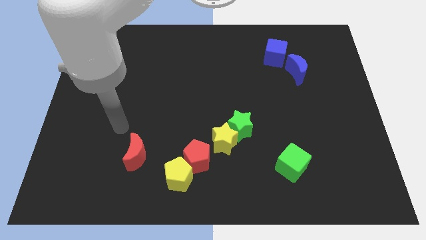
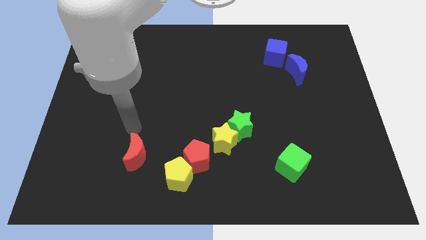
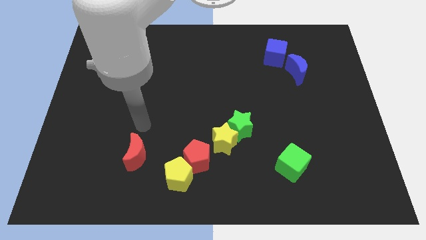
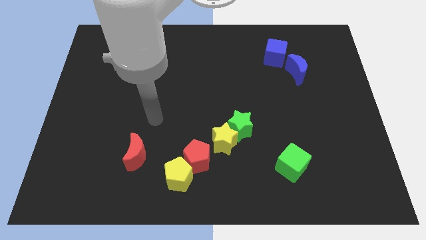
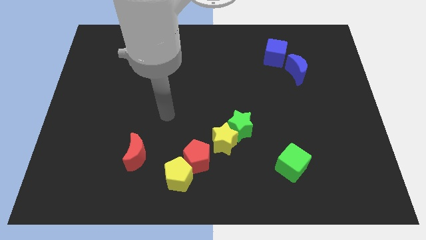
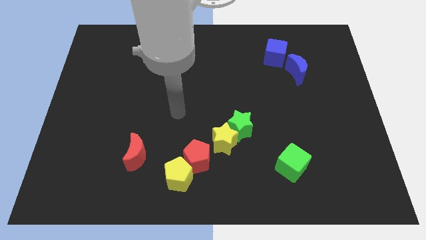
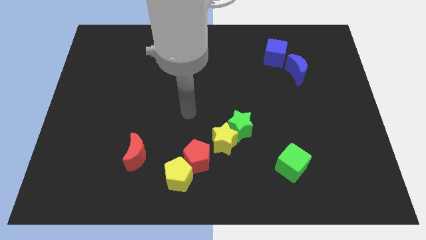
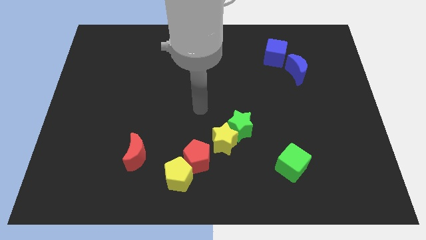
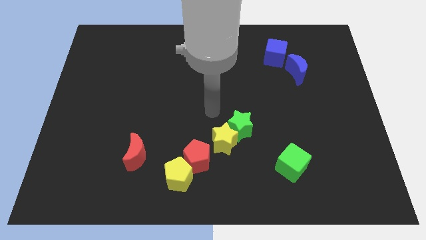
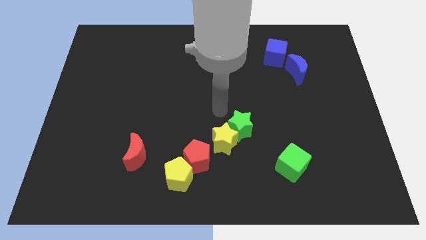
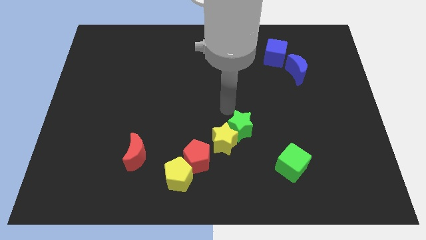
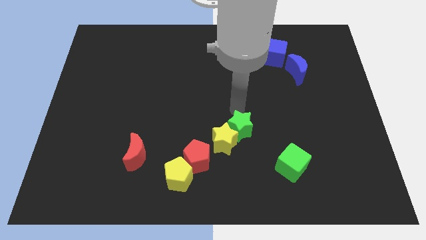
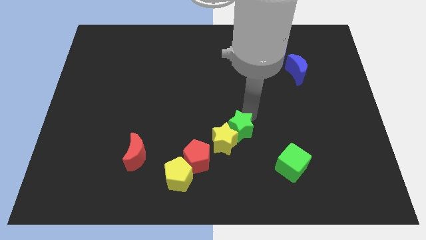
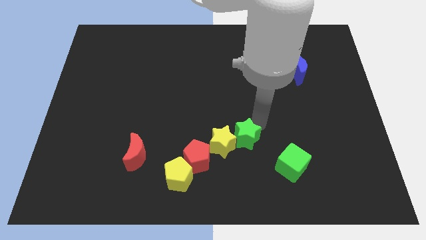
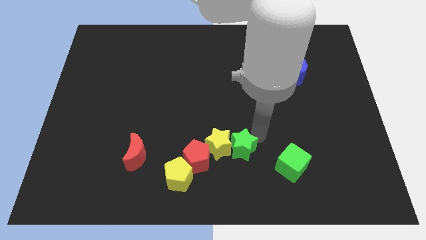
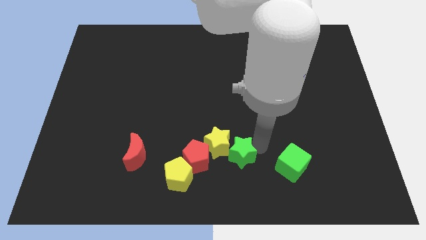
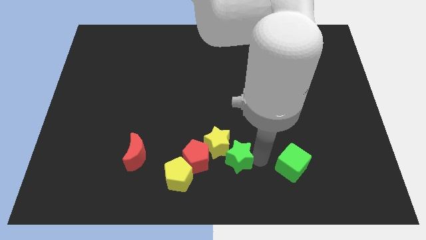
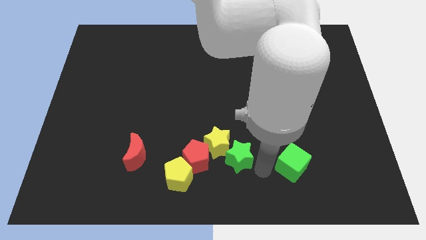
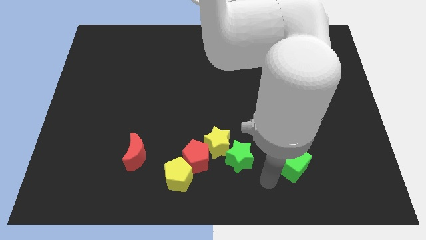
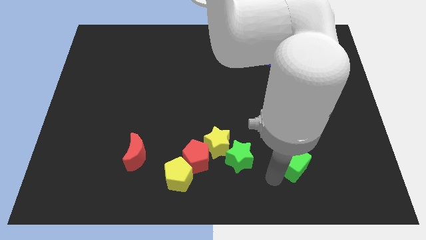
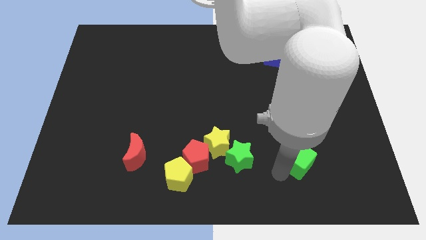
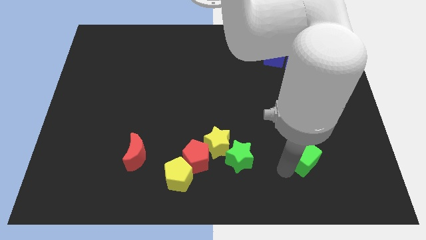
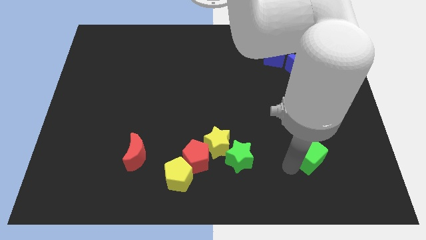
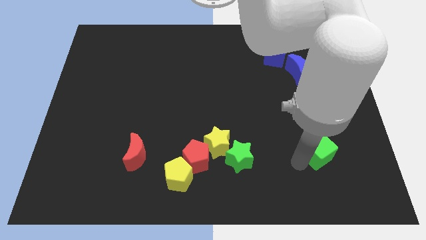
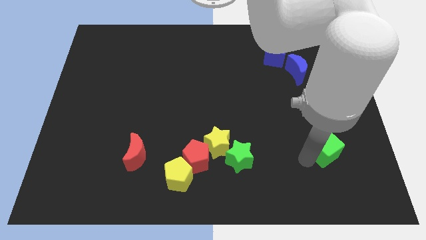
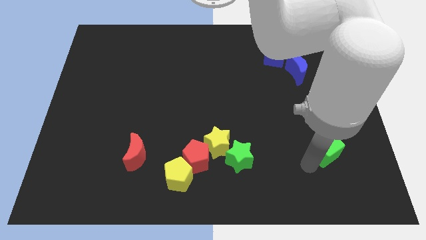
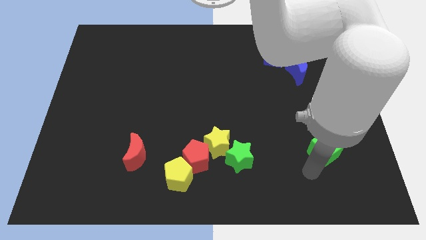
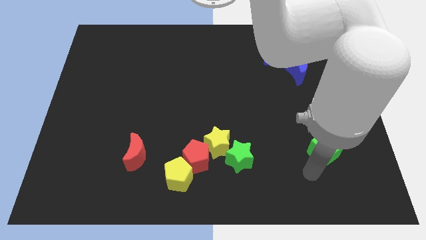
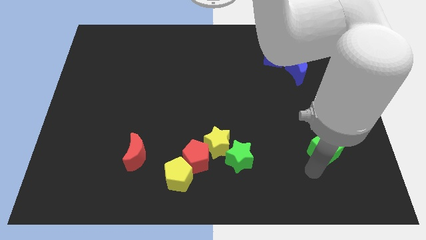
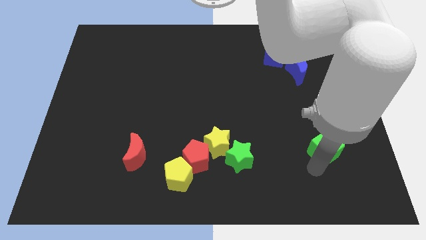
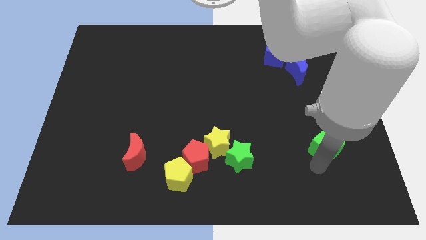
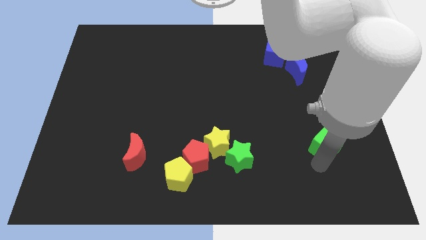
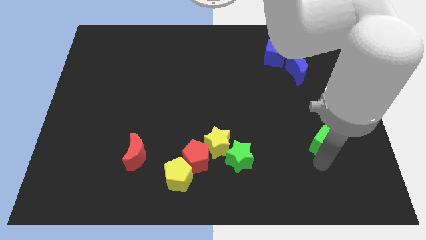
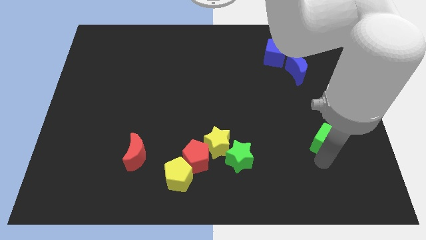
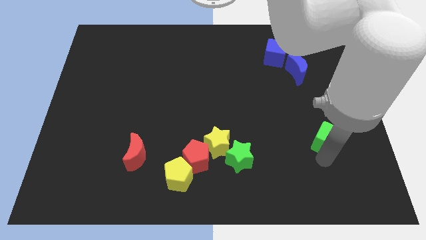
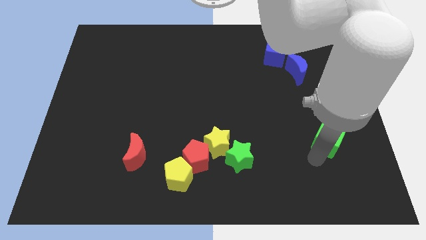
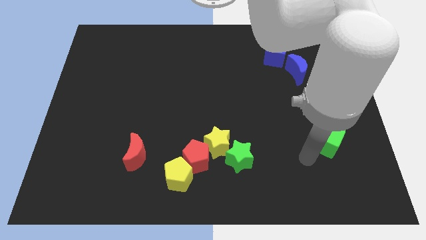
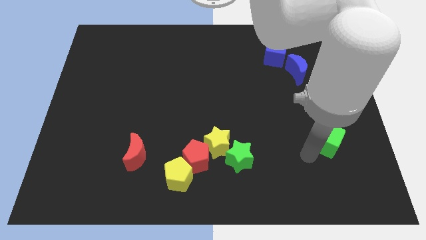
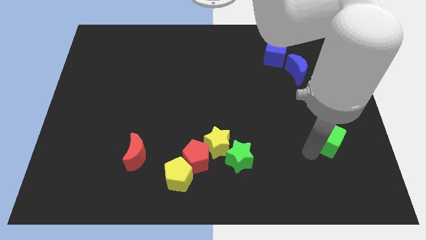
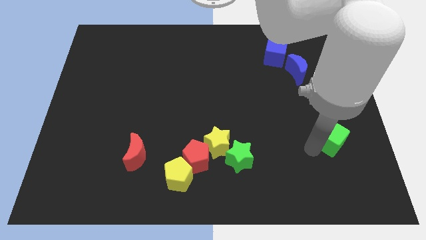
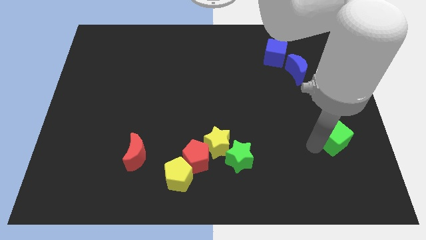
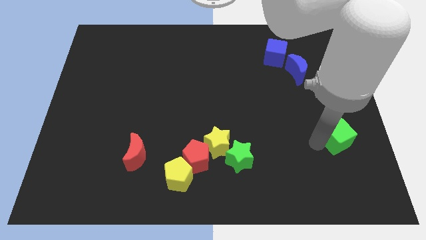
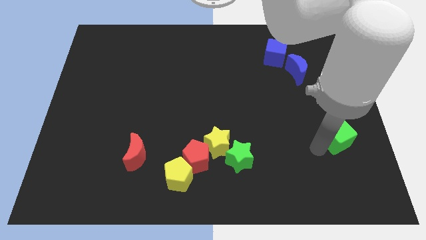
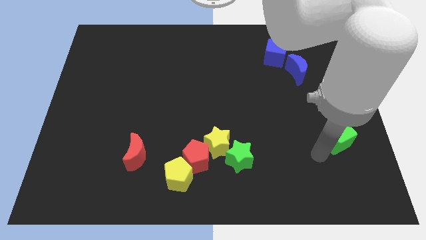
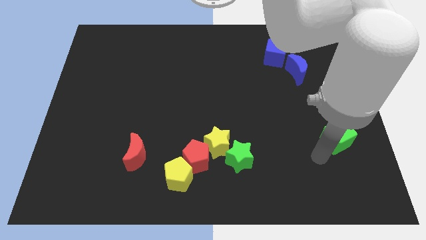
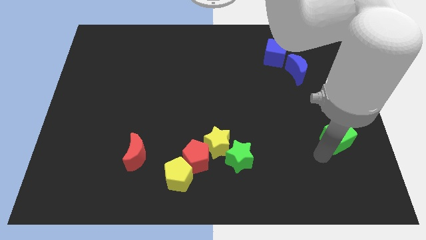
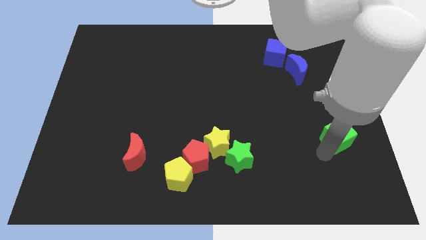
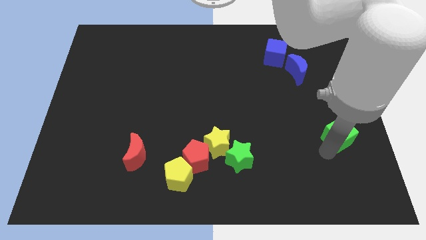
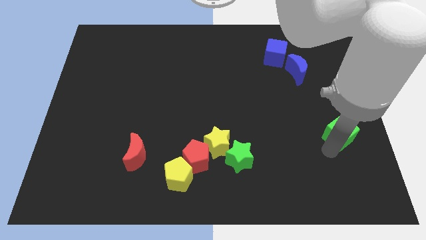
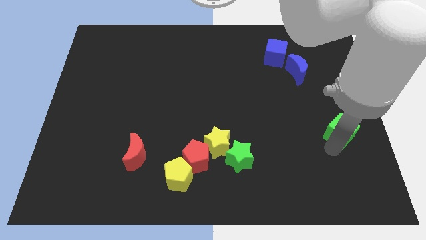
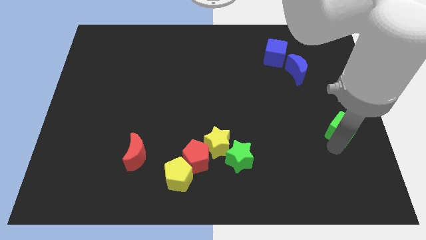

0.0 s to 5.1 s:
slide the green cube to the right side

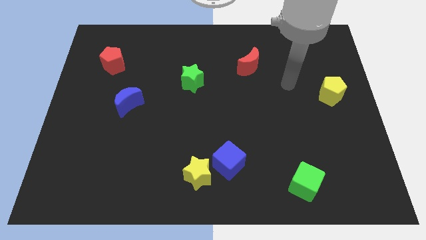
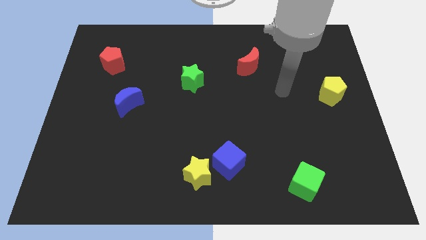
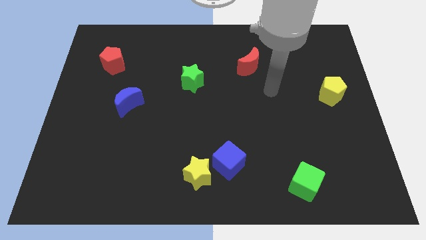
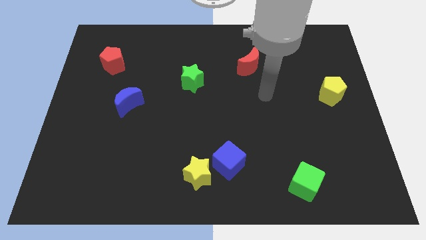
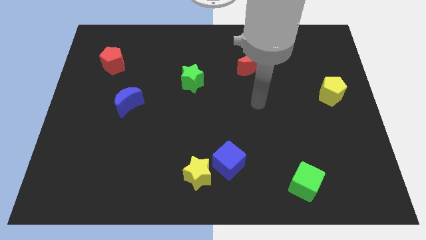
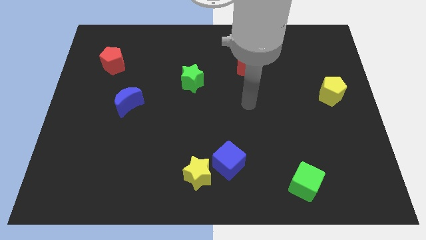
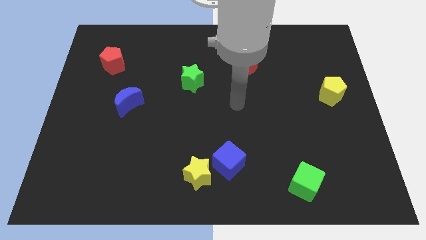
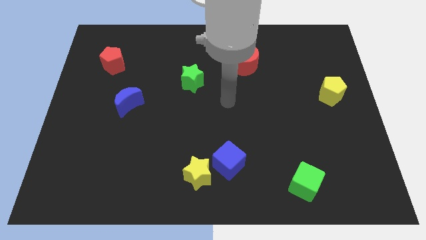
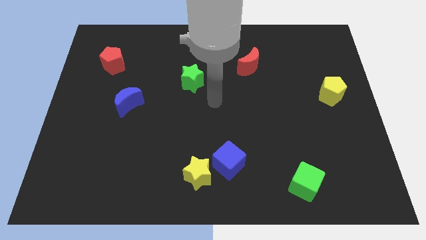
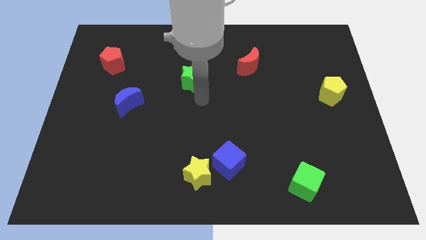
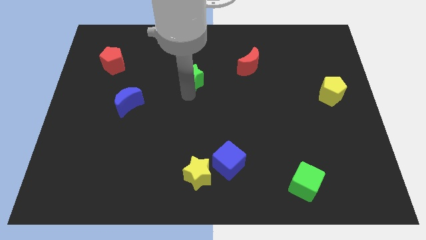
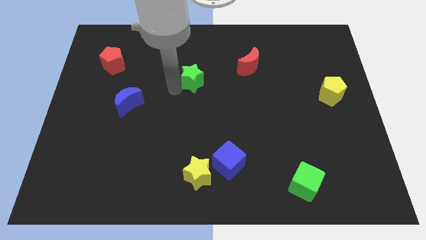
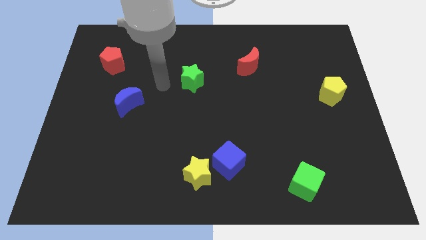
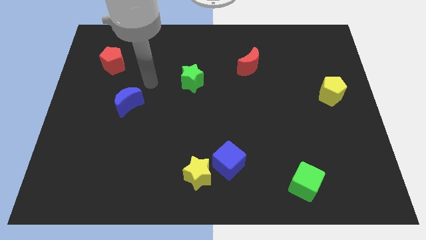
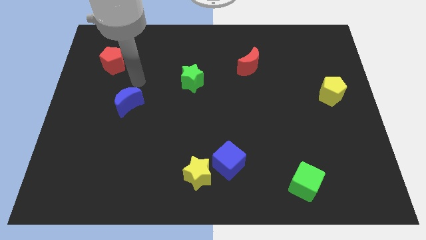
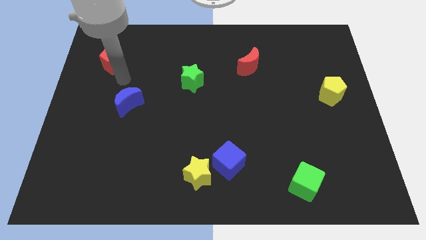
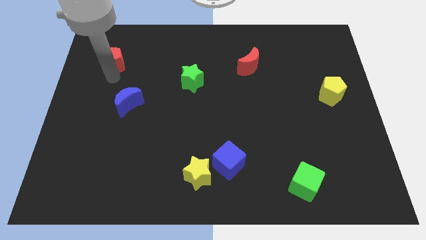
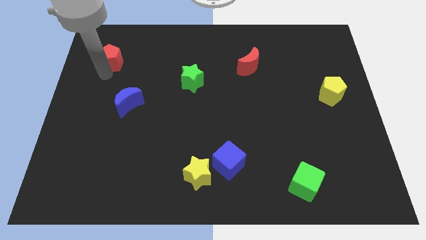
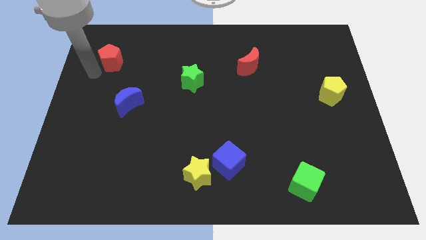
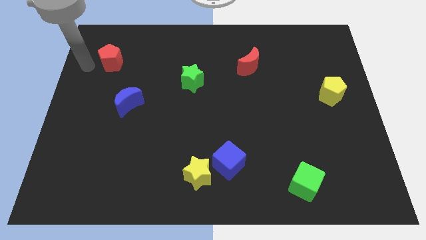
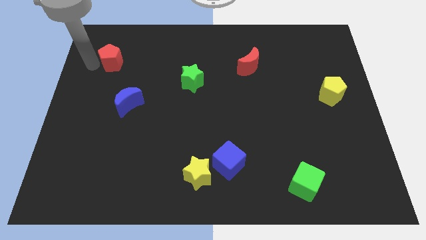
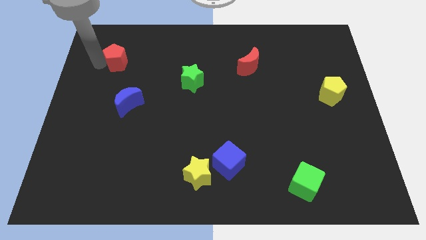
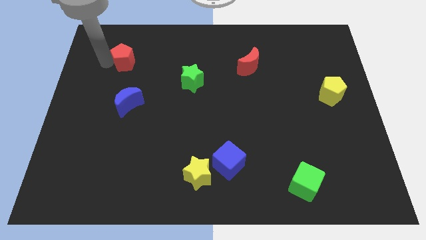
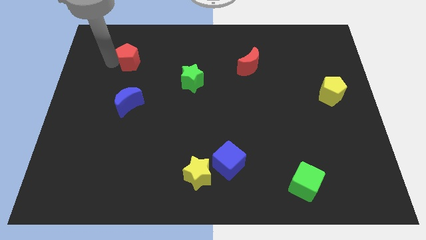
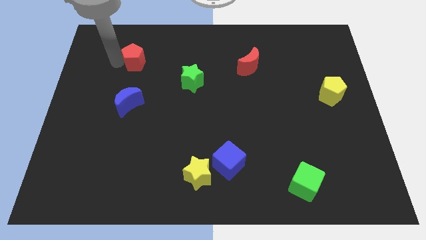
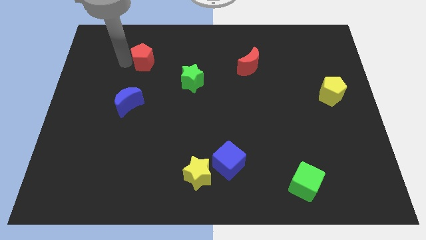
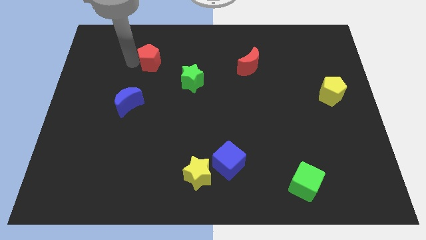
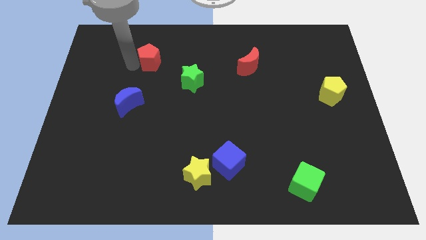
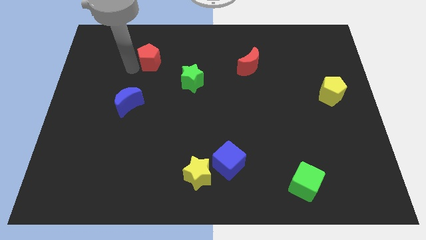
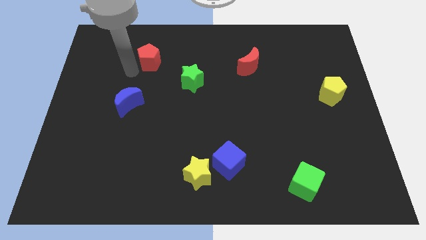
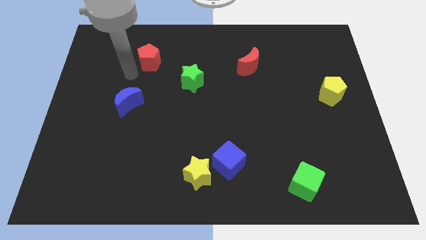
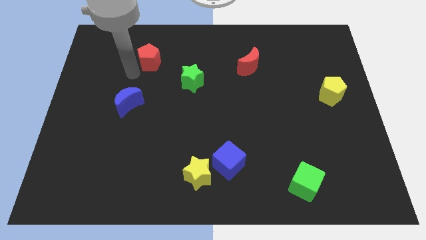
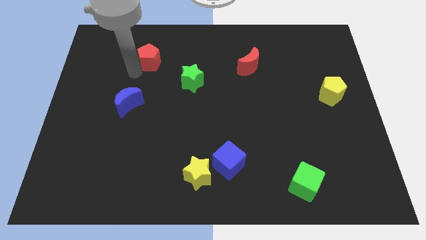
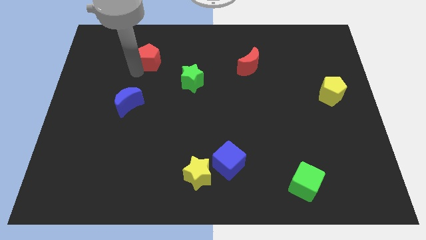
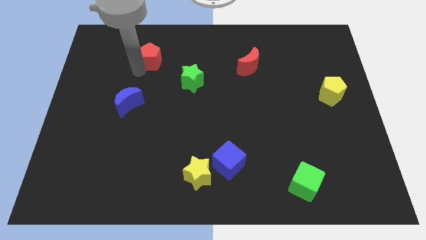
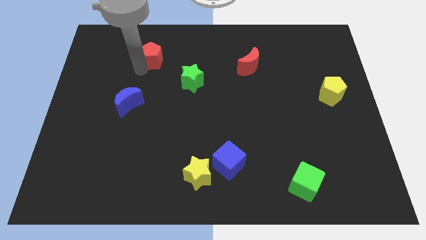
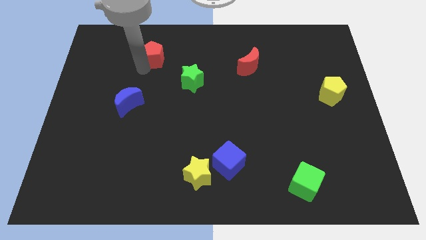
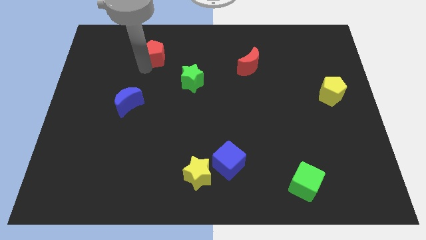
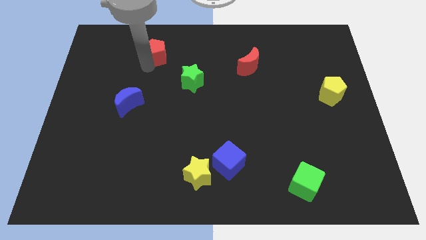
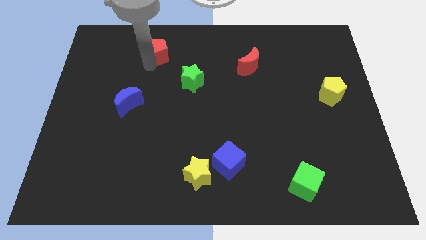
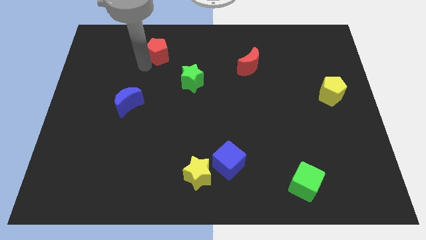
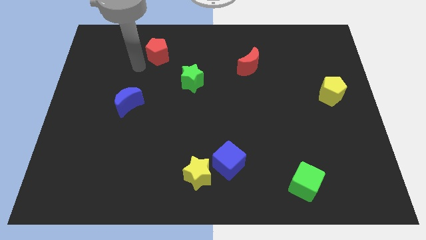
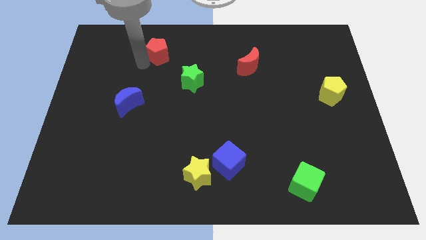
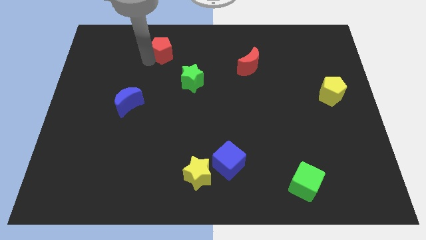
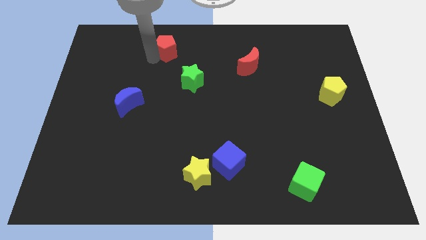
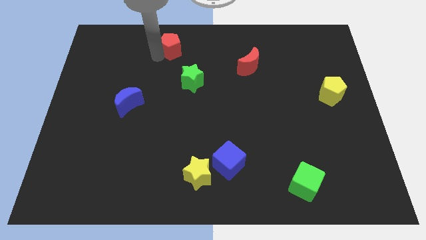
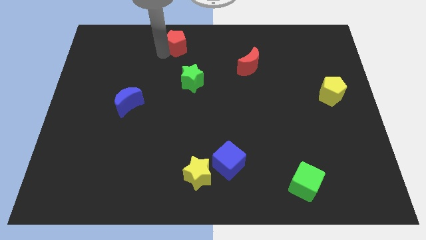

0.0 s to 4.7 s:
slide the red pentagon to the top side
